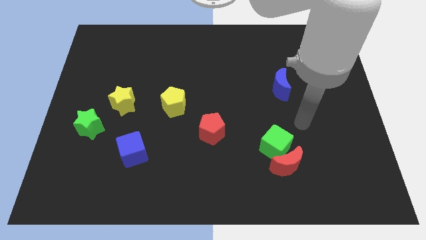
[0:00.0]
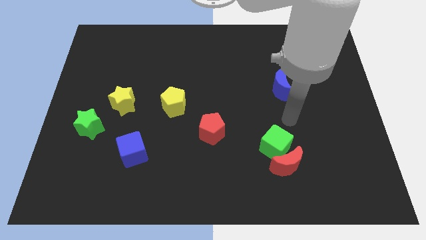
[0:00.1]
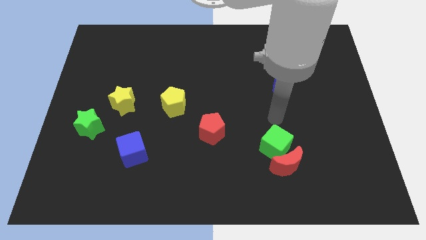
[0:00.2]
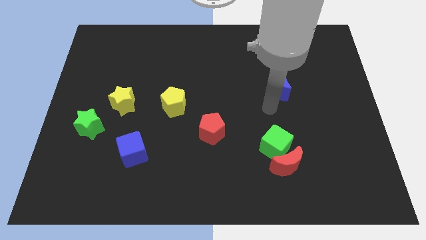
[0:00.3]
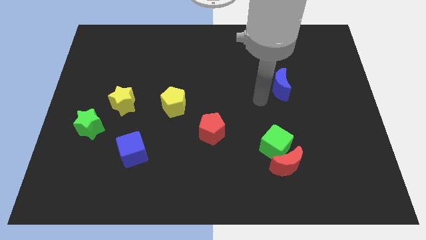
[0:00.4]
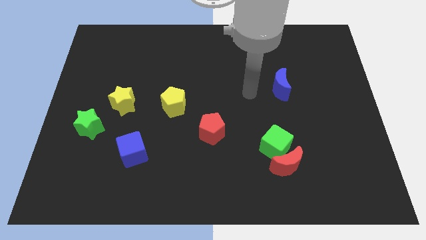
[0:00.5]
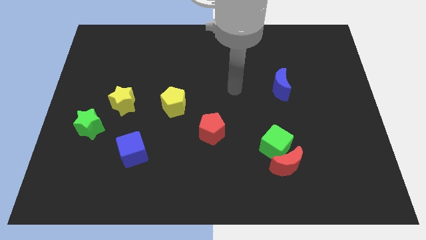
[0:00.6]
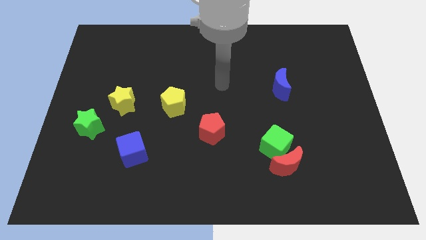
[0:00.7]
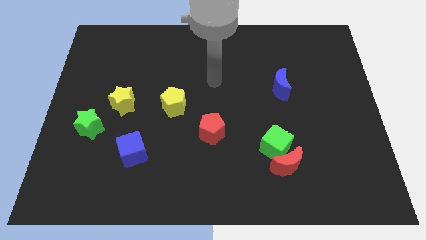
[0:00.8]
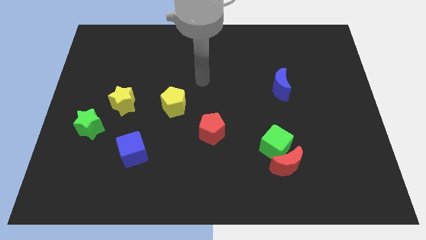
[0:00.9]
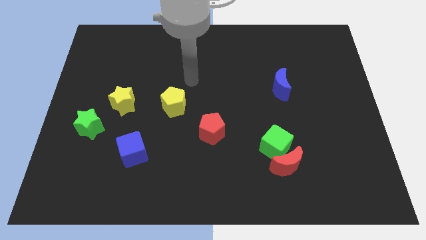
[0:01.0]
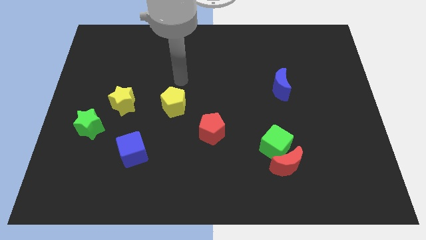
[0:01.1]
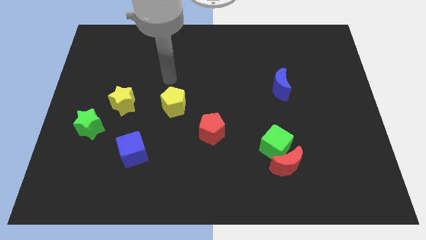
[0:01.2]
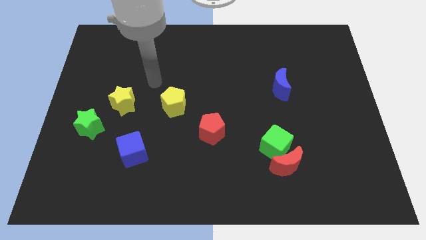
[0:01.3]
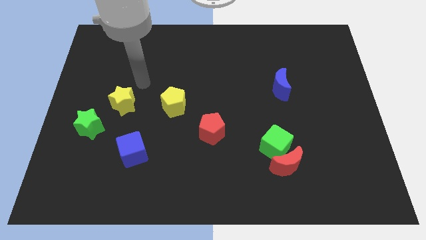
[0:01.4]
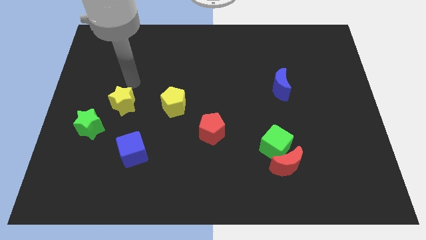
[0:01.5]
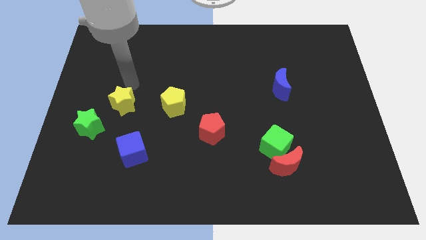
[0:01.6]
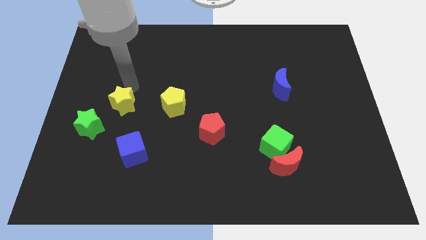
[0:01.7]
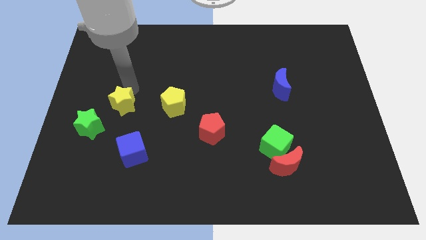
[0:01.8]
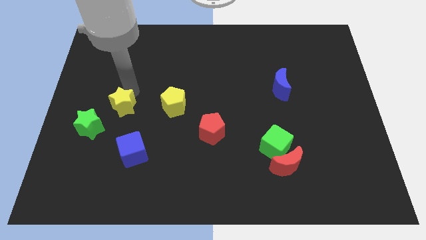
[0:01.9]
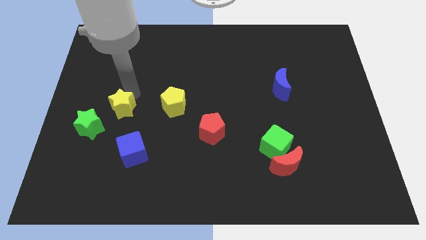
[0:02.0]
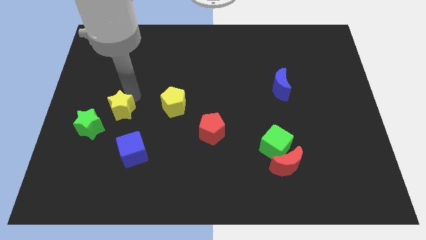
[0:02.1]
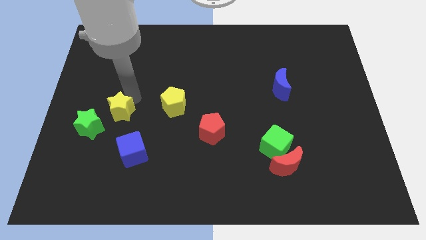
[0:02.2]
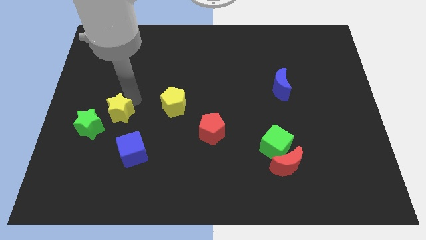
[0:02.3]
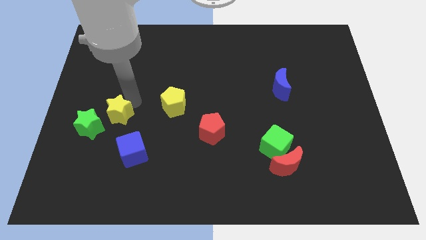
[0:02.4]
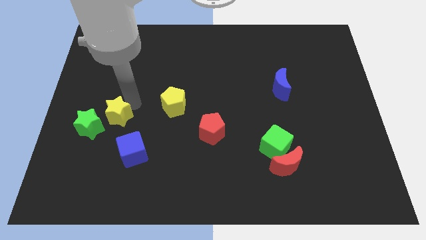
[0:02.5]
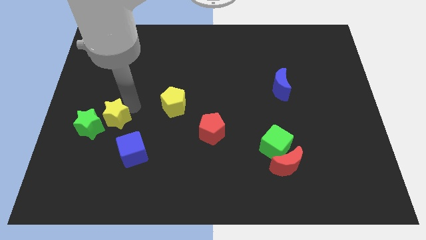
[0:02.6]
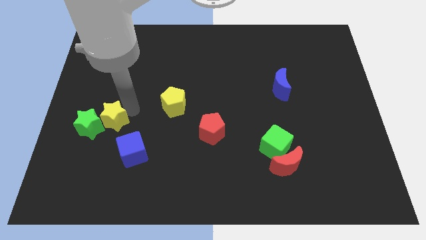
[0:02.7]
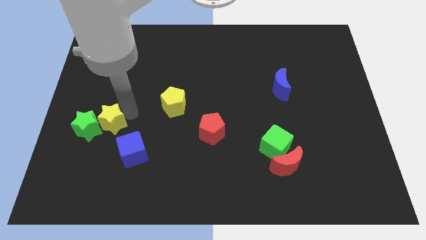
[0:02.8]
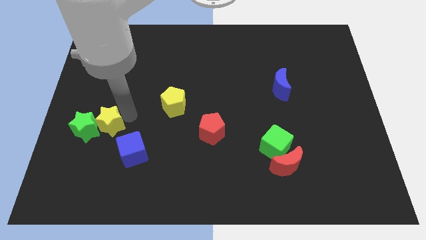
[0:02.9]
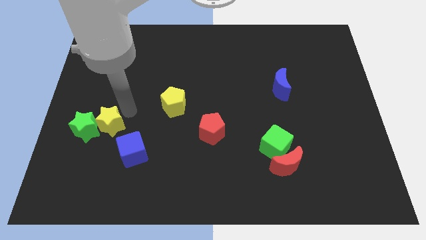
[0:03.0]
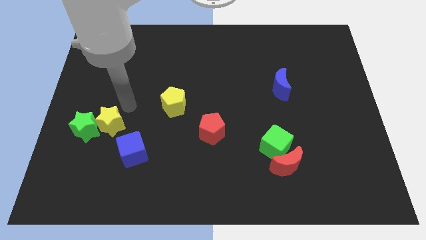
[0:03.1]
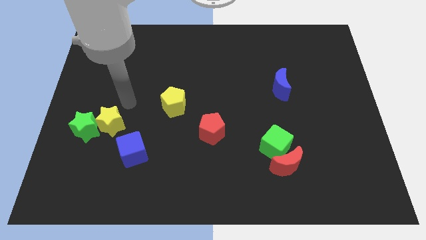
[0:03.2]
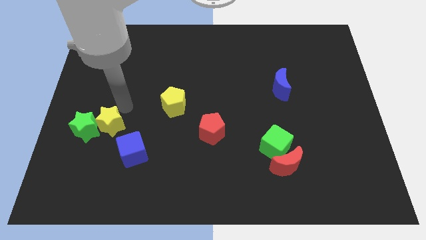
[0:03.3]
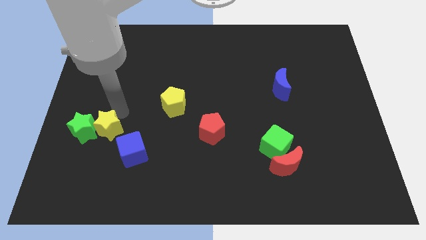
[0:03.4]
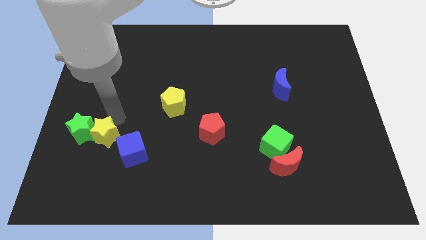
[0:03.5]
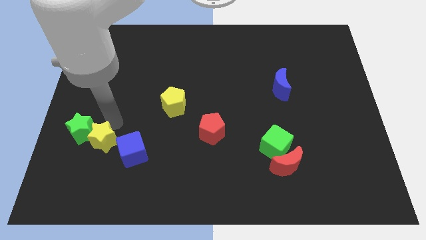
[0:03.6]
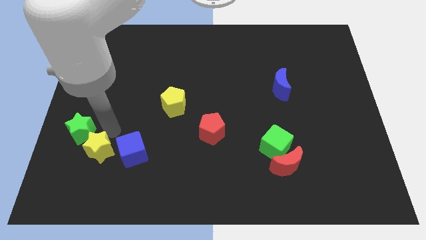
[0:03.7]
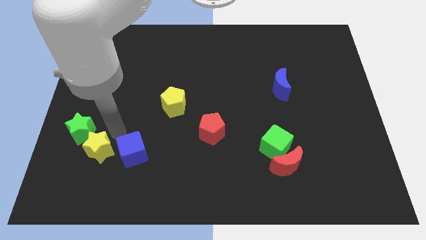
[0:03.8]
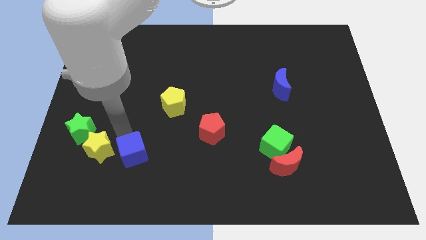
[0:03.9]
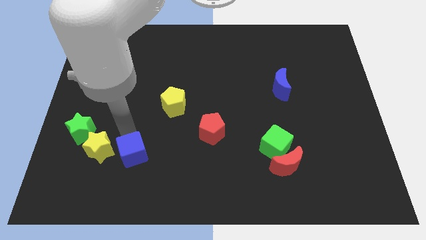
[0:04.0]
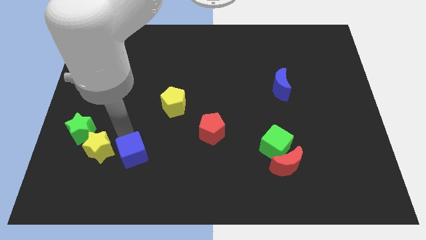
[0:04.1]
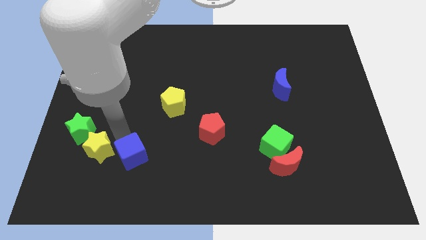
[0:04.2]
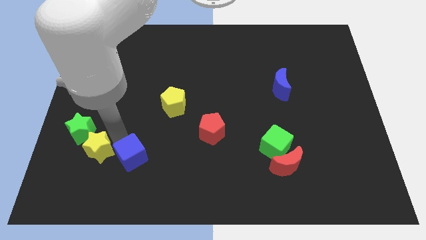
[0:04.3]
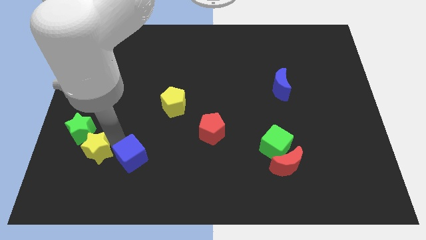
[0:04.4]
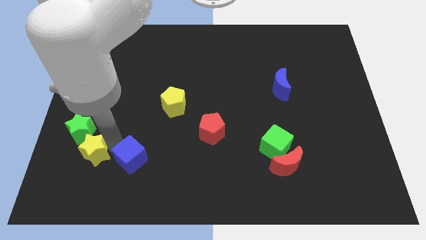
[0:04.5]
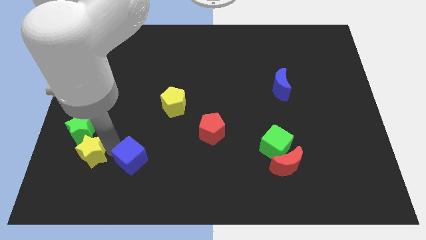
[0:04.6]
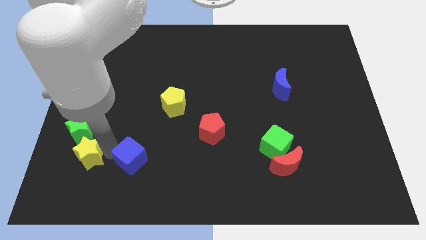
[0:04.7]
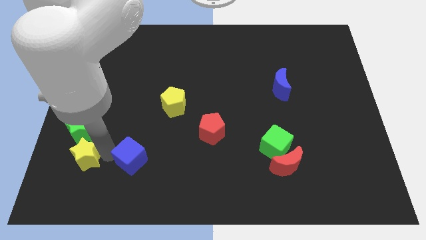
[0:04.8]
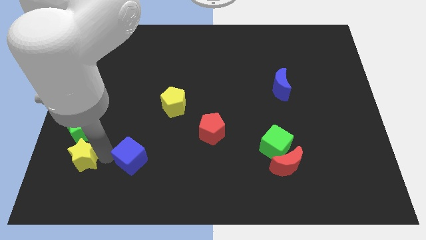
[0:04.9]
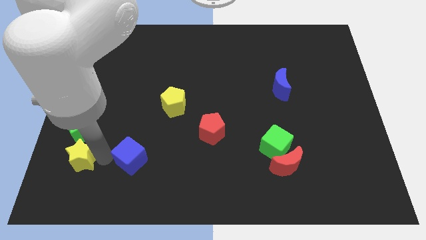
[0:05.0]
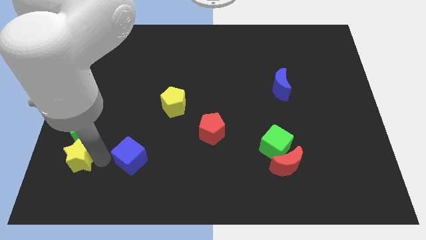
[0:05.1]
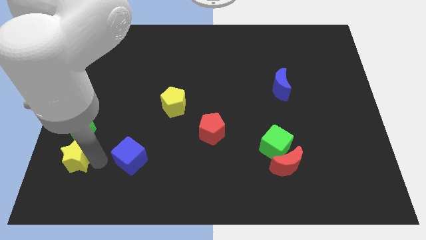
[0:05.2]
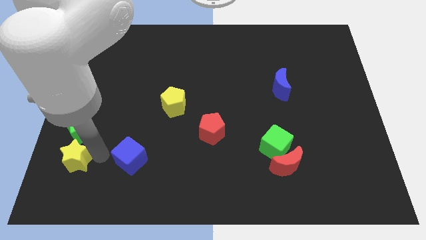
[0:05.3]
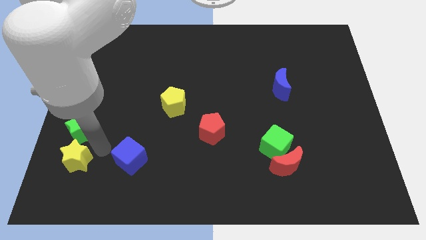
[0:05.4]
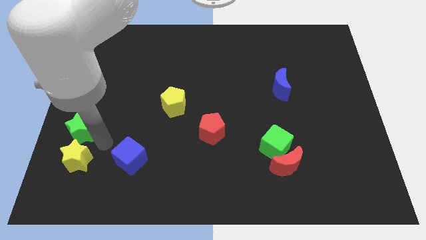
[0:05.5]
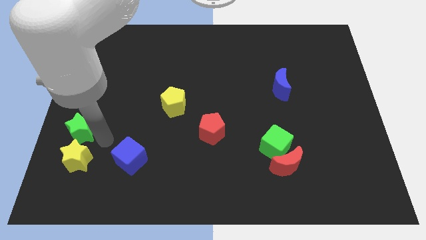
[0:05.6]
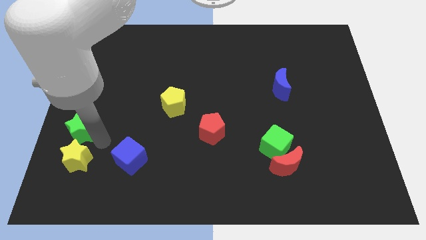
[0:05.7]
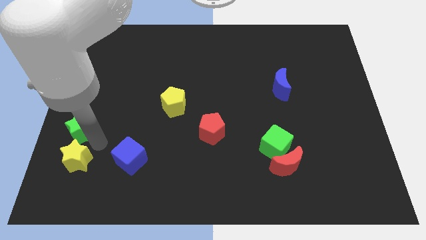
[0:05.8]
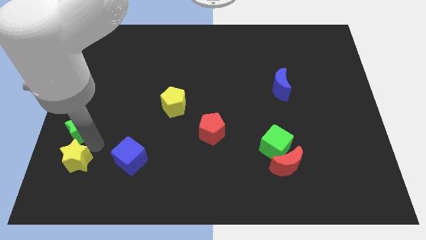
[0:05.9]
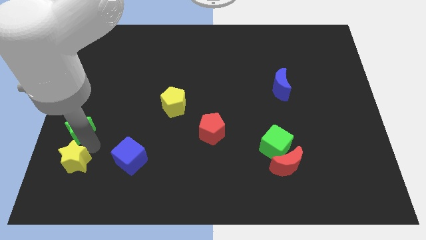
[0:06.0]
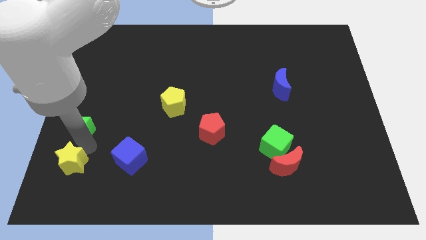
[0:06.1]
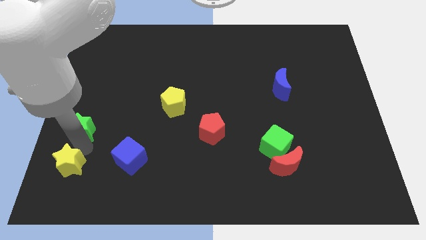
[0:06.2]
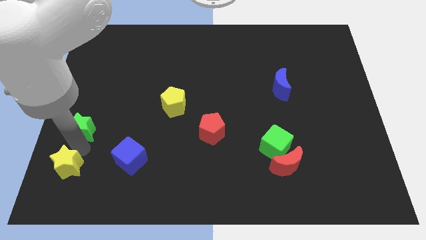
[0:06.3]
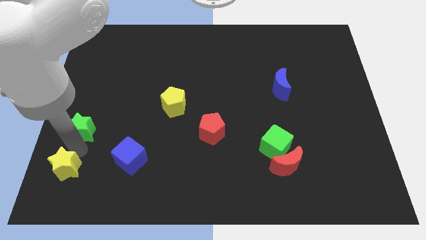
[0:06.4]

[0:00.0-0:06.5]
move the yellow star to the bottom left of the board
